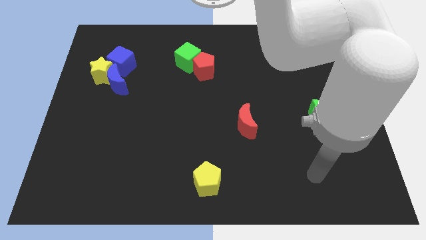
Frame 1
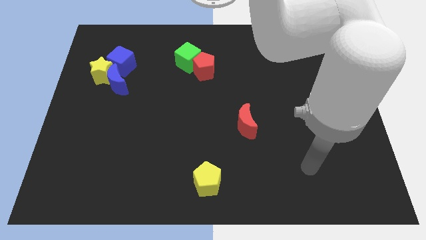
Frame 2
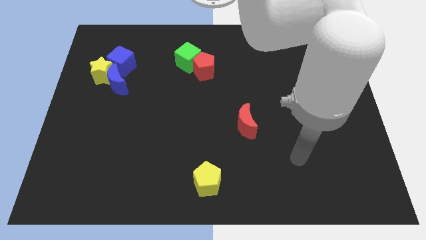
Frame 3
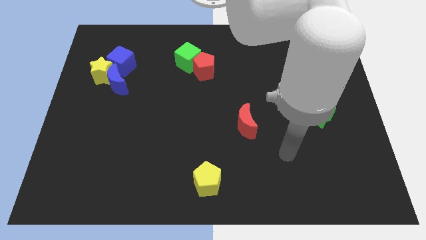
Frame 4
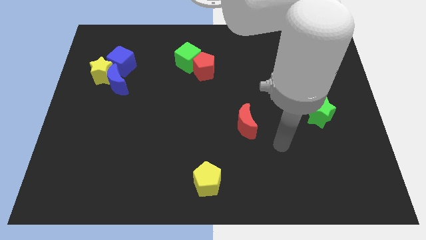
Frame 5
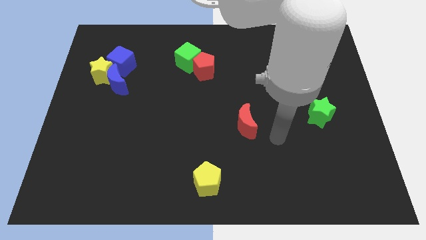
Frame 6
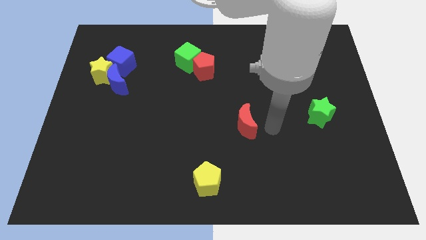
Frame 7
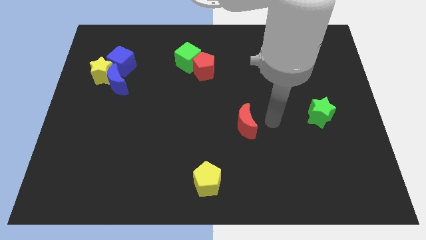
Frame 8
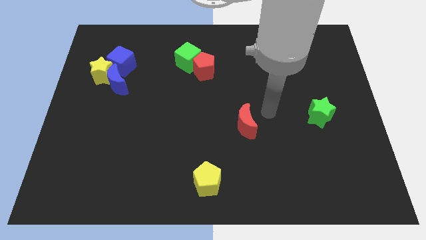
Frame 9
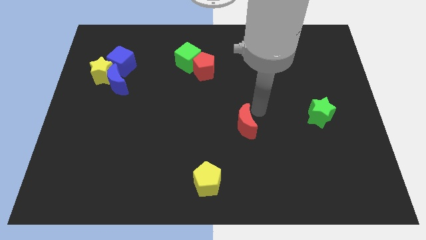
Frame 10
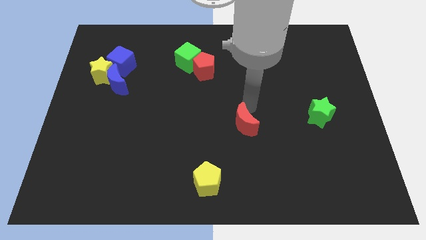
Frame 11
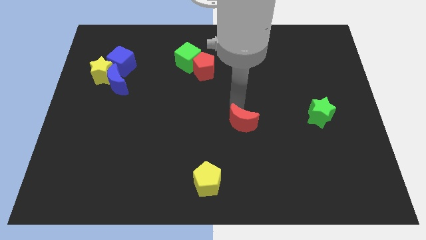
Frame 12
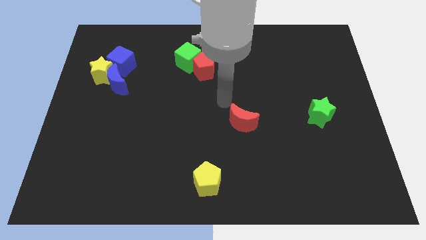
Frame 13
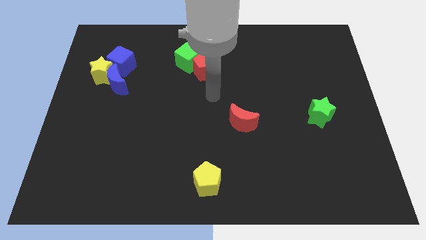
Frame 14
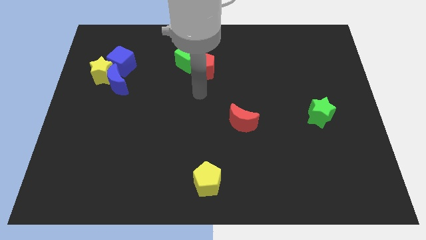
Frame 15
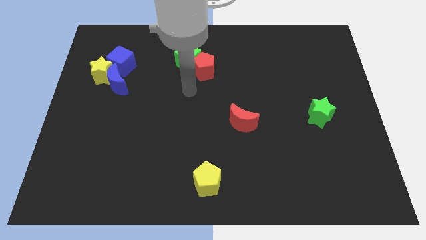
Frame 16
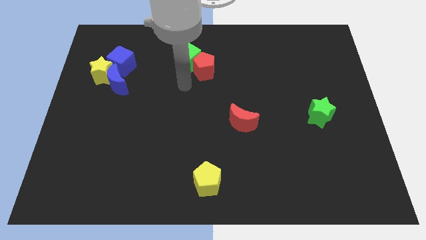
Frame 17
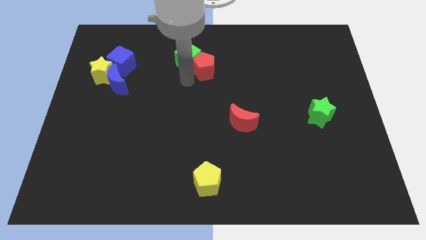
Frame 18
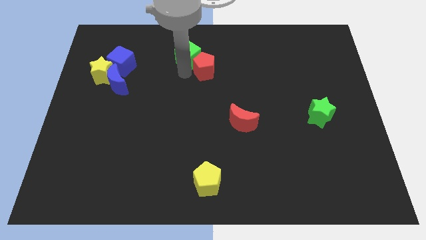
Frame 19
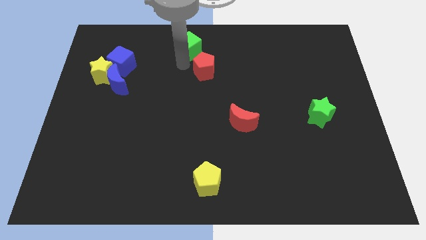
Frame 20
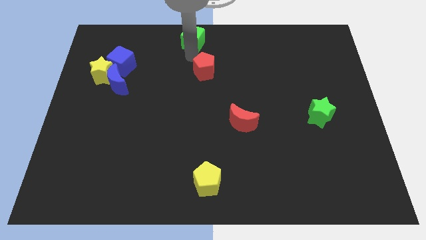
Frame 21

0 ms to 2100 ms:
separate the red pentagon from the green cube

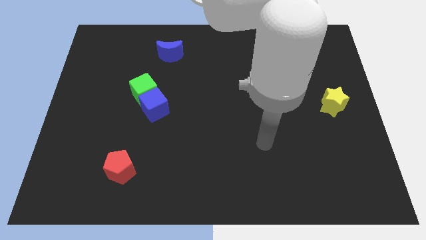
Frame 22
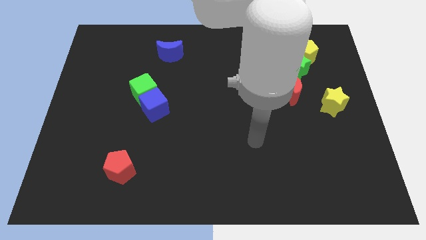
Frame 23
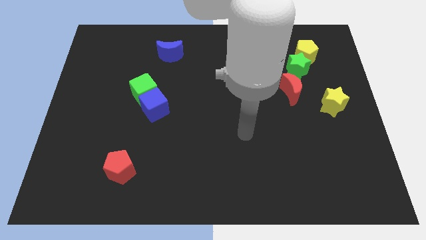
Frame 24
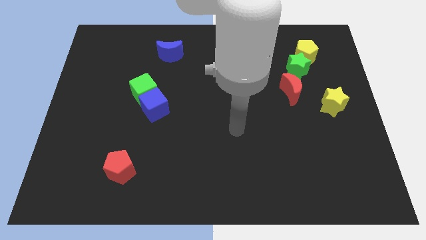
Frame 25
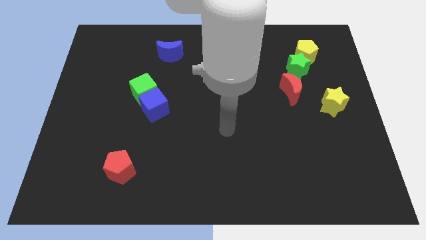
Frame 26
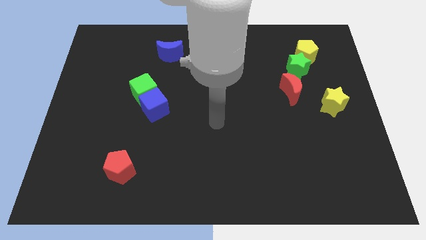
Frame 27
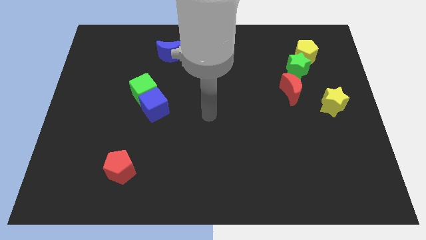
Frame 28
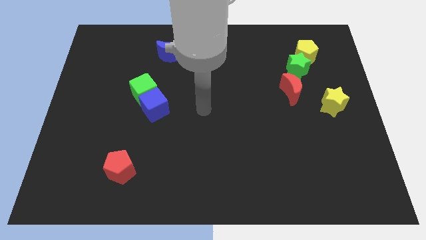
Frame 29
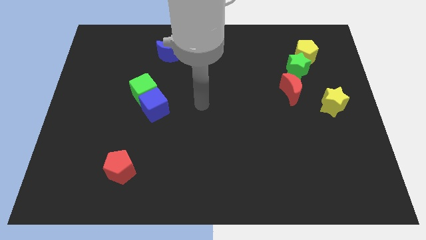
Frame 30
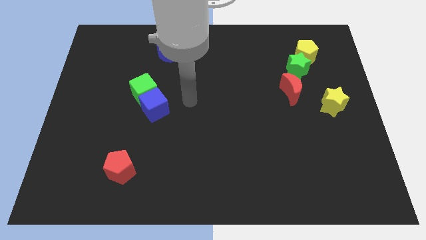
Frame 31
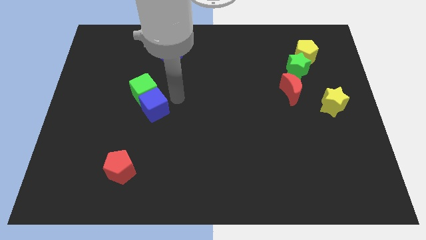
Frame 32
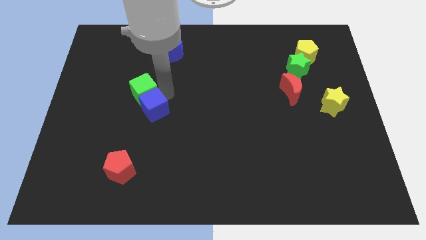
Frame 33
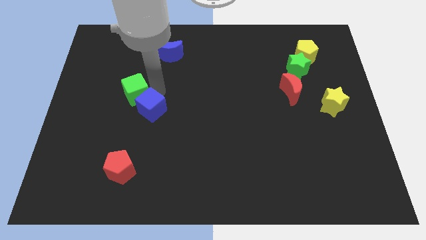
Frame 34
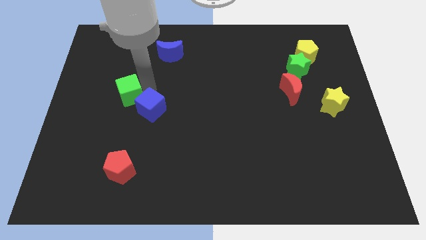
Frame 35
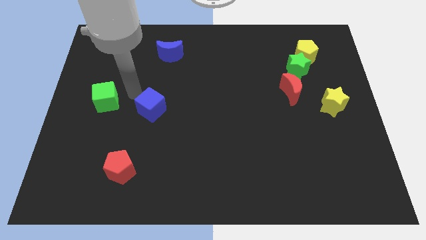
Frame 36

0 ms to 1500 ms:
separate the blue cube from the green cube

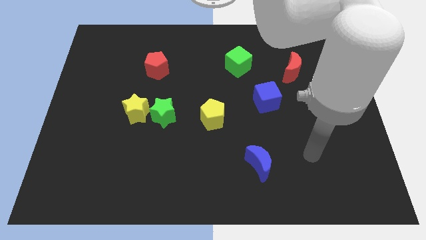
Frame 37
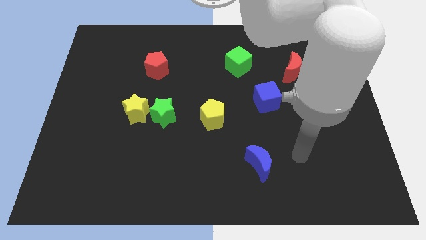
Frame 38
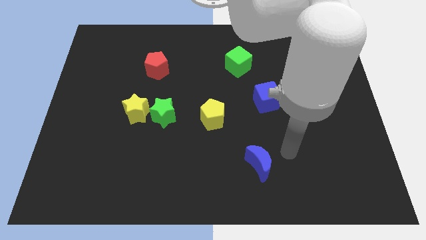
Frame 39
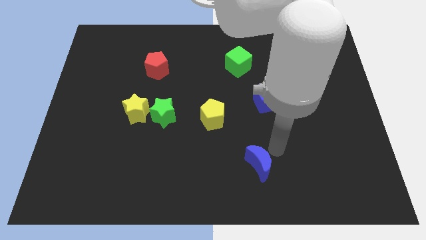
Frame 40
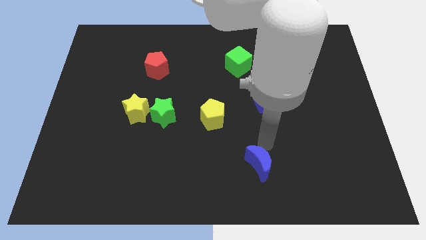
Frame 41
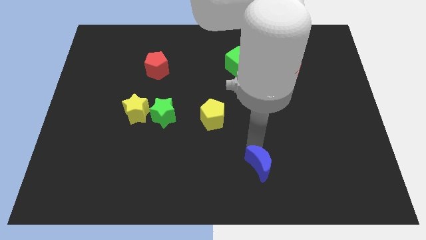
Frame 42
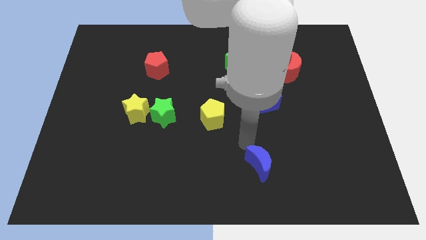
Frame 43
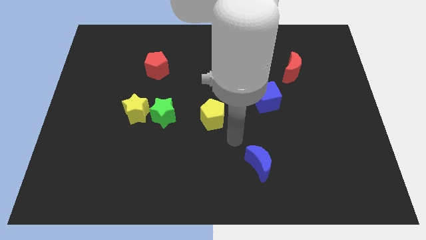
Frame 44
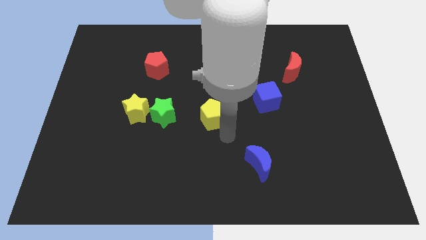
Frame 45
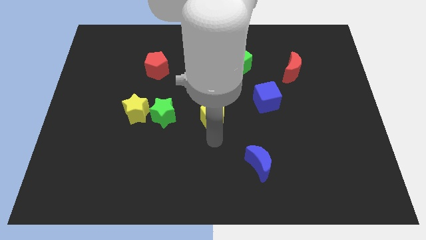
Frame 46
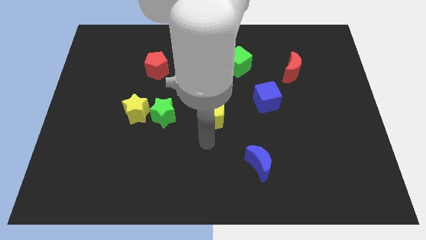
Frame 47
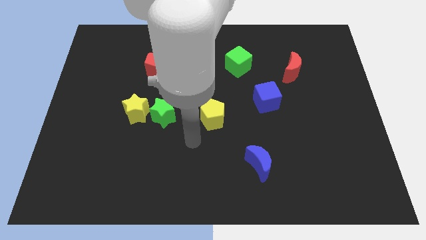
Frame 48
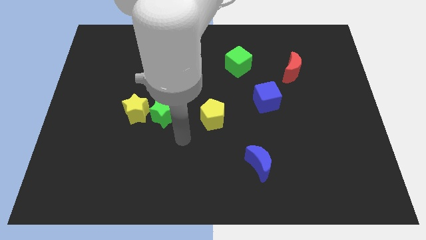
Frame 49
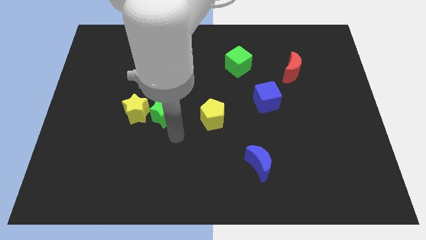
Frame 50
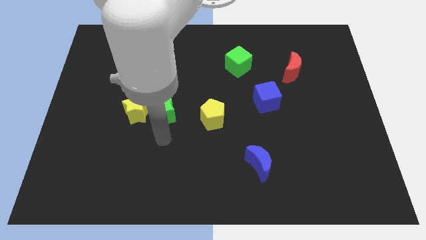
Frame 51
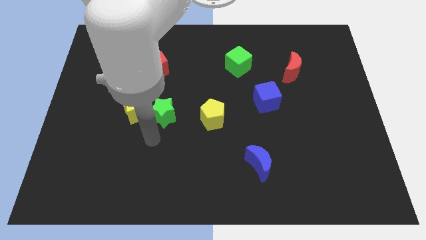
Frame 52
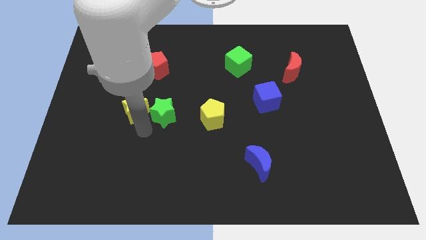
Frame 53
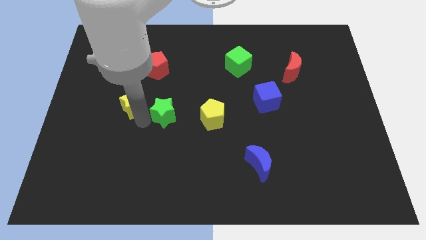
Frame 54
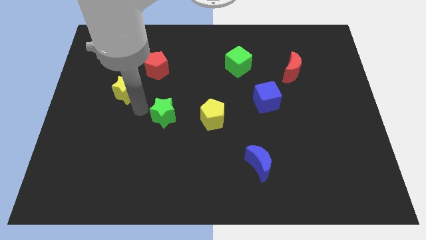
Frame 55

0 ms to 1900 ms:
separate the green star from the yellow star

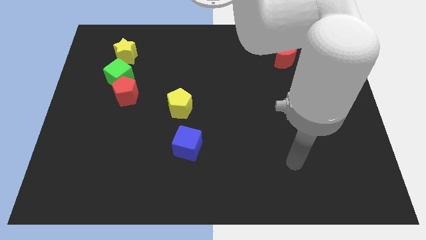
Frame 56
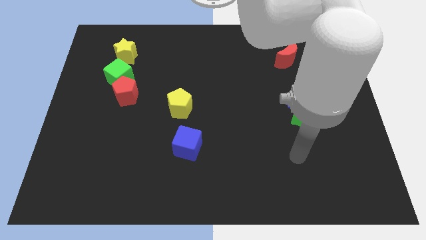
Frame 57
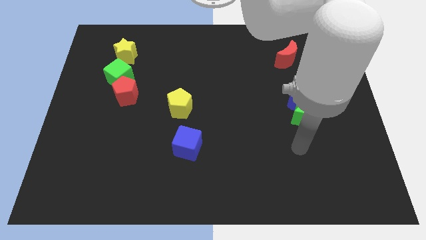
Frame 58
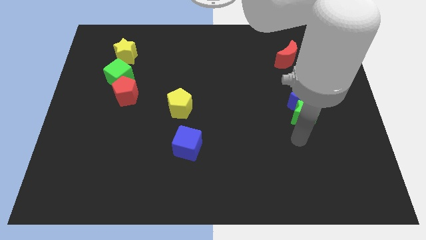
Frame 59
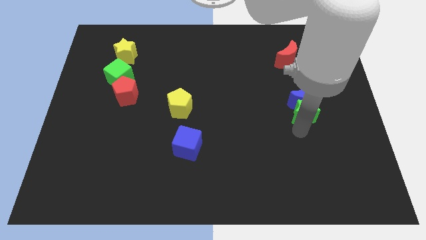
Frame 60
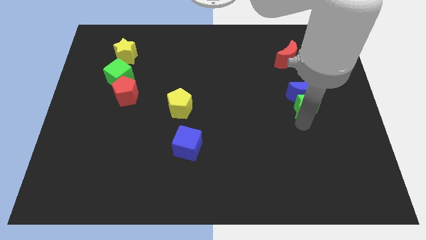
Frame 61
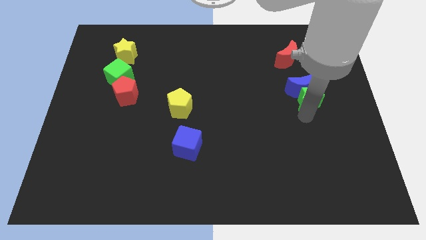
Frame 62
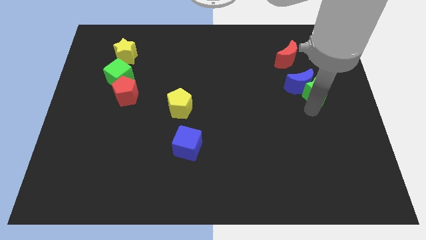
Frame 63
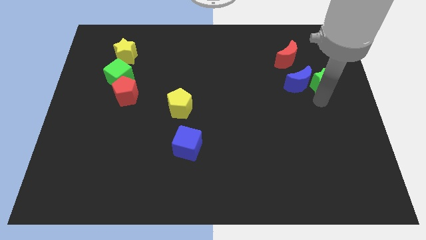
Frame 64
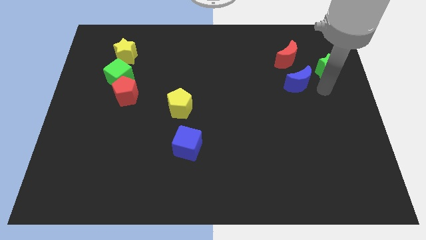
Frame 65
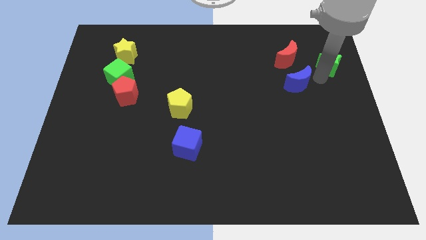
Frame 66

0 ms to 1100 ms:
pull the blue moon apart from the green star

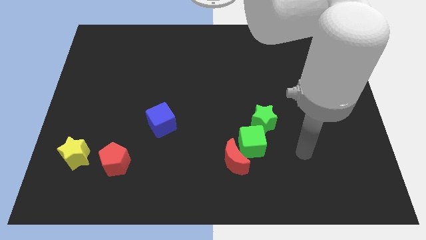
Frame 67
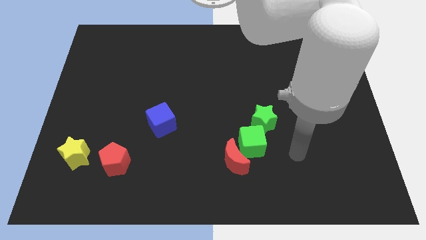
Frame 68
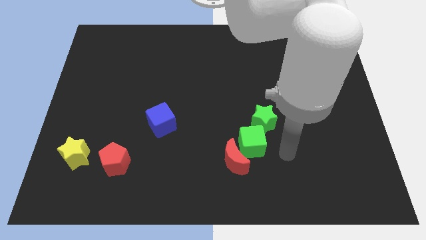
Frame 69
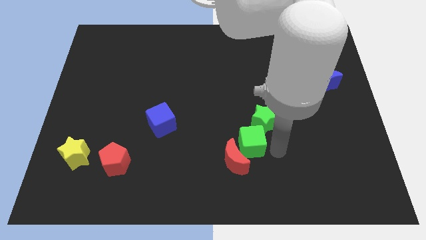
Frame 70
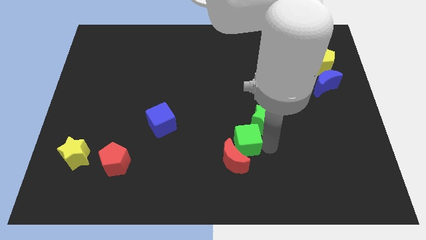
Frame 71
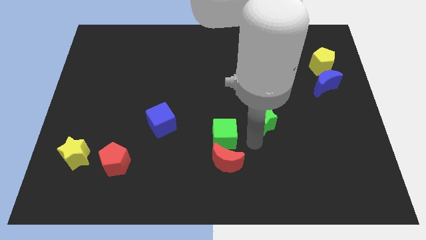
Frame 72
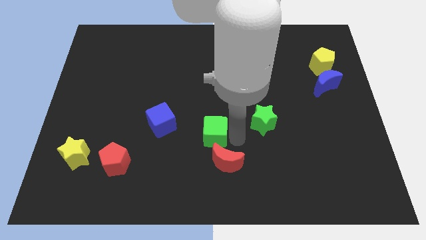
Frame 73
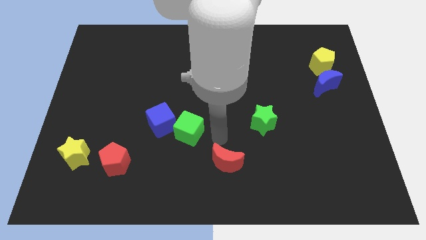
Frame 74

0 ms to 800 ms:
pull the red moon apart from the green cube

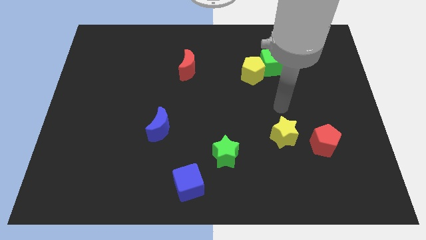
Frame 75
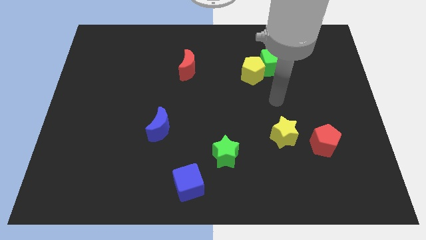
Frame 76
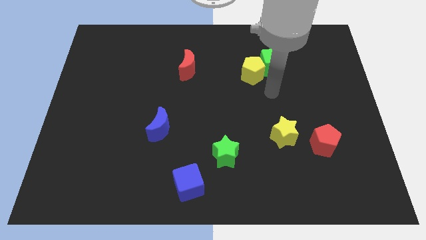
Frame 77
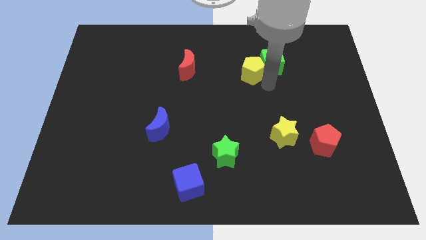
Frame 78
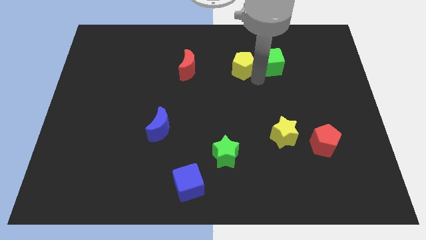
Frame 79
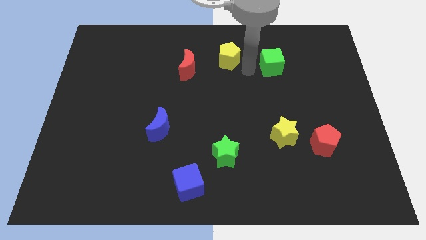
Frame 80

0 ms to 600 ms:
pull the green cube apart from the yellow pentagon

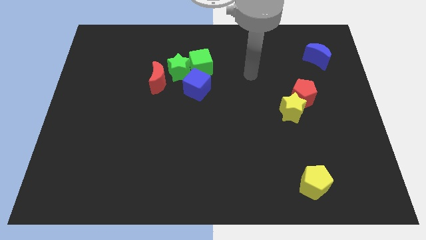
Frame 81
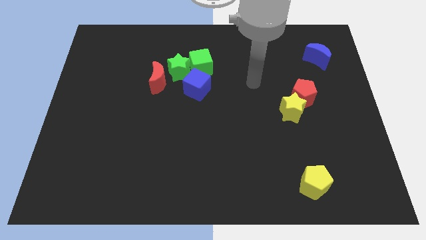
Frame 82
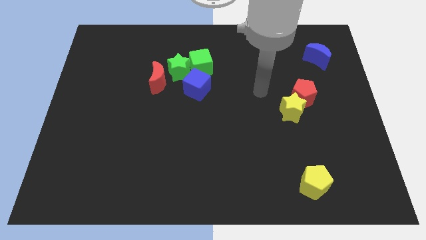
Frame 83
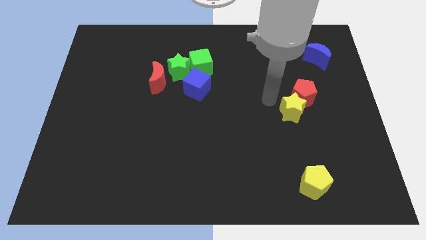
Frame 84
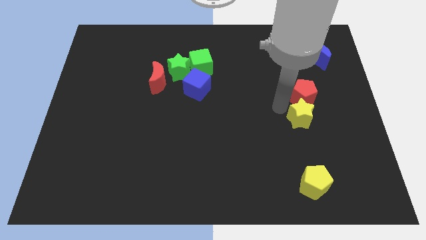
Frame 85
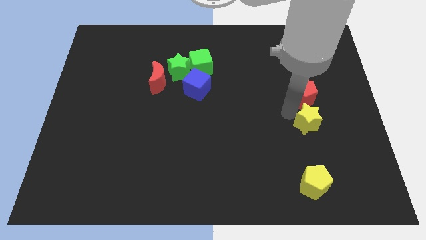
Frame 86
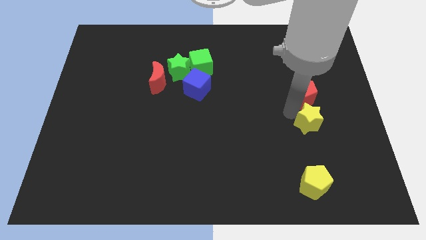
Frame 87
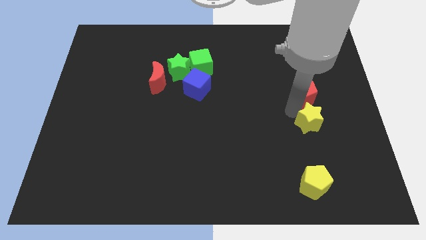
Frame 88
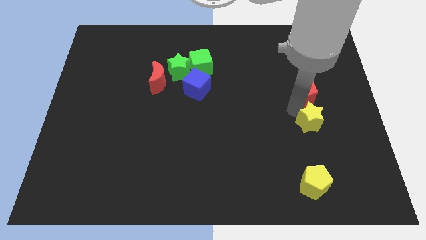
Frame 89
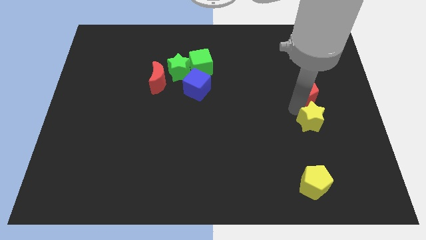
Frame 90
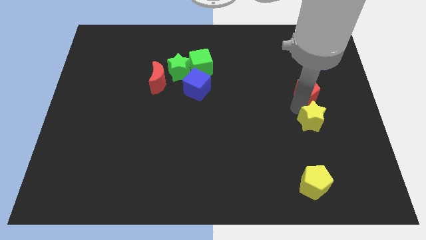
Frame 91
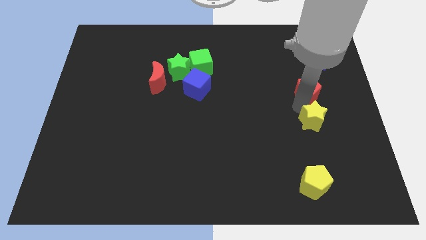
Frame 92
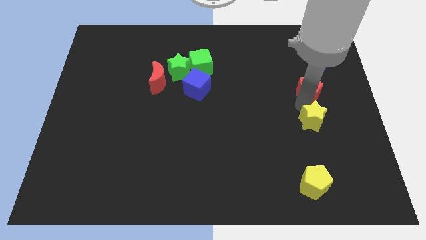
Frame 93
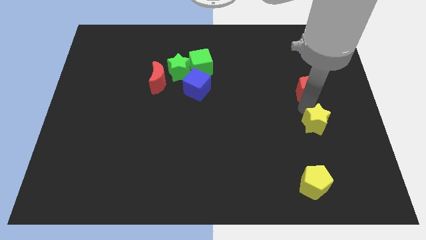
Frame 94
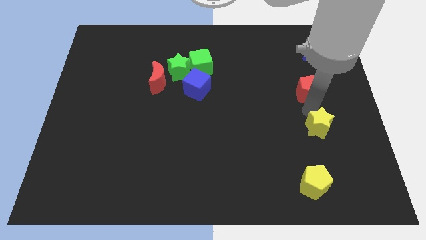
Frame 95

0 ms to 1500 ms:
move the red pentagon away from the yellow star
